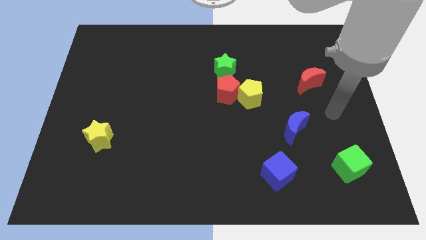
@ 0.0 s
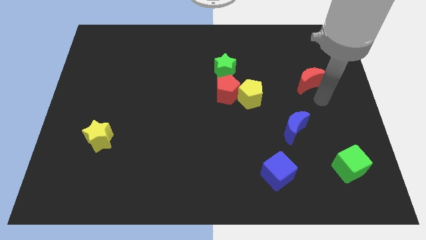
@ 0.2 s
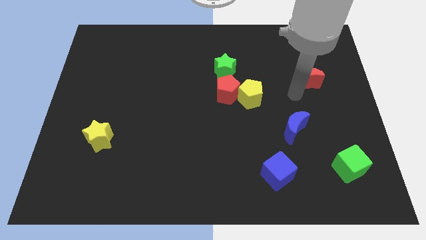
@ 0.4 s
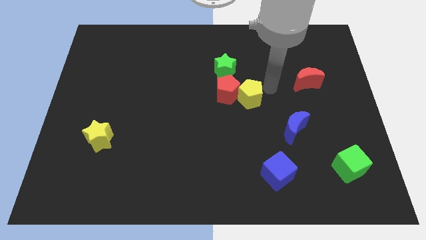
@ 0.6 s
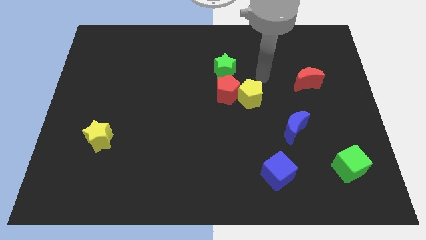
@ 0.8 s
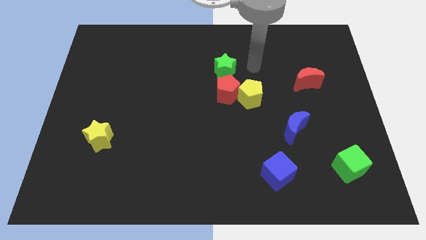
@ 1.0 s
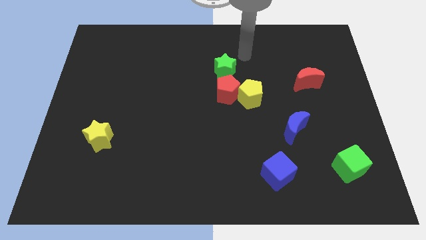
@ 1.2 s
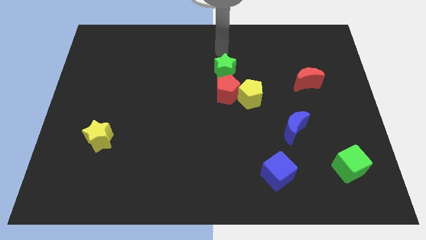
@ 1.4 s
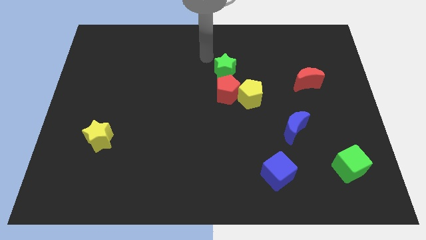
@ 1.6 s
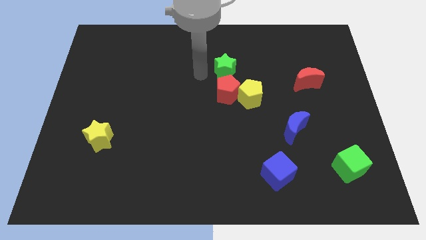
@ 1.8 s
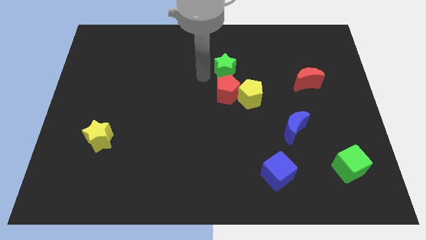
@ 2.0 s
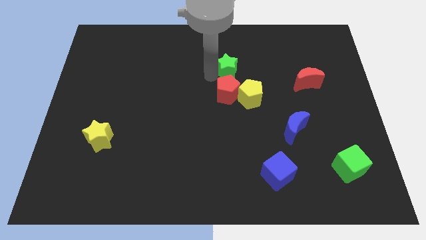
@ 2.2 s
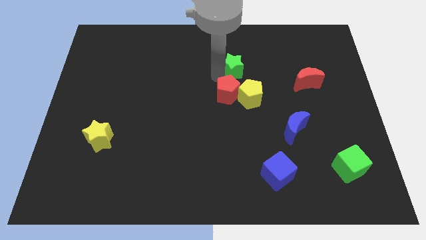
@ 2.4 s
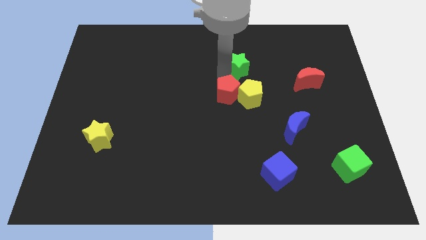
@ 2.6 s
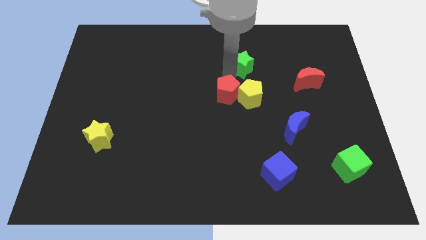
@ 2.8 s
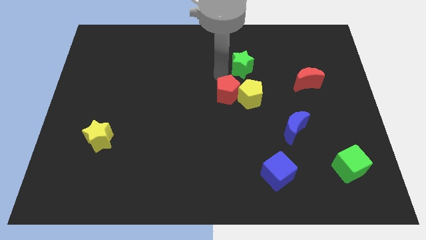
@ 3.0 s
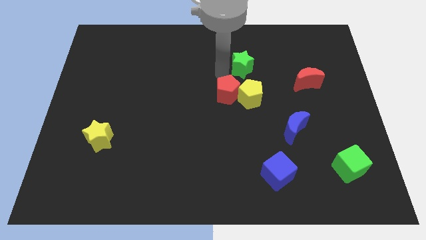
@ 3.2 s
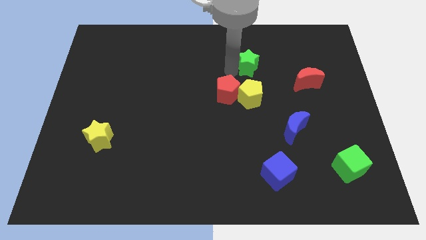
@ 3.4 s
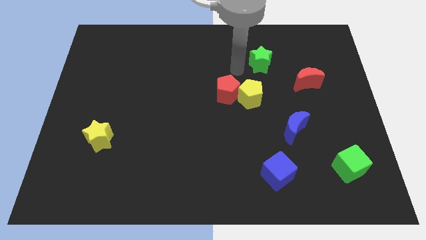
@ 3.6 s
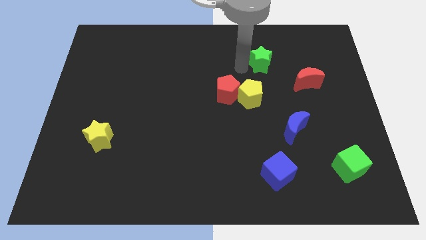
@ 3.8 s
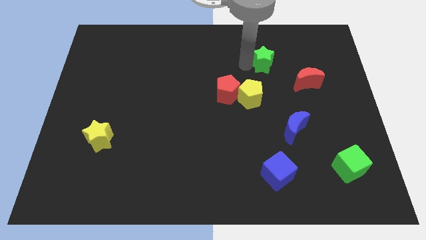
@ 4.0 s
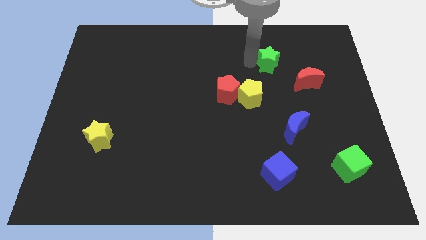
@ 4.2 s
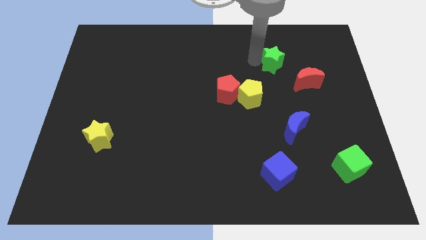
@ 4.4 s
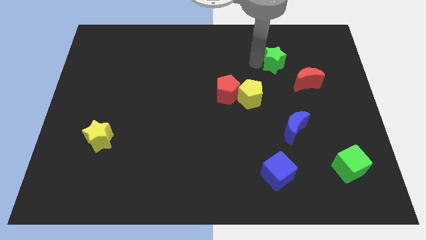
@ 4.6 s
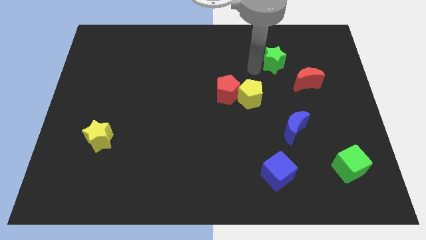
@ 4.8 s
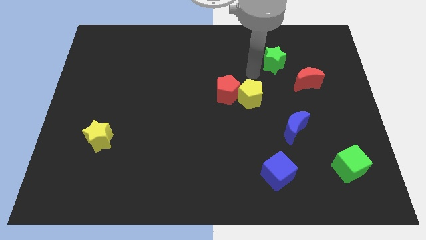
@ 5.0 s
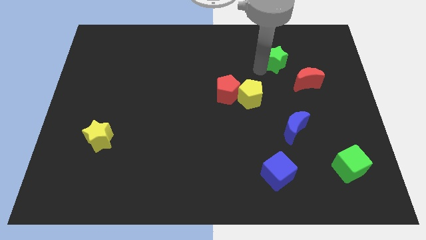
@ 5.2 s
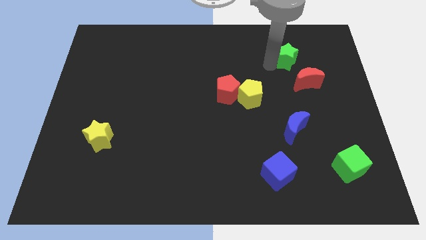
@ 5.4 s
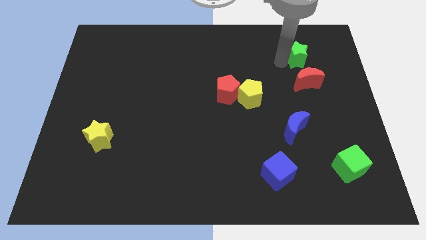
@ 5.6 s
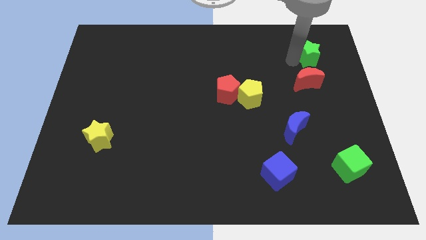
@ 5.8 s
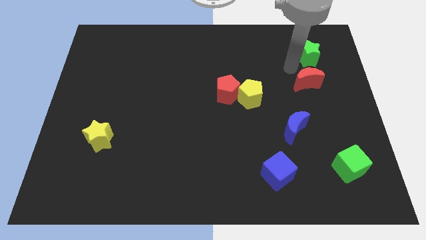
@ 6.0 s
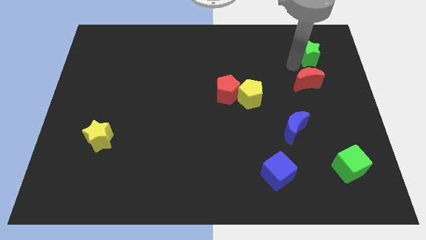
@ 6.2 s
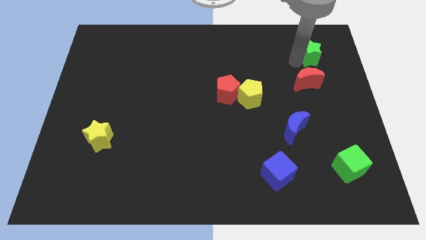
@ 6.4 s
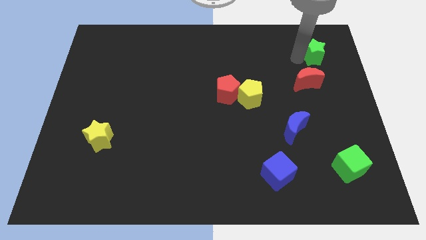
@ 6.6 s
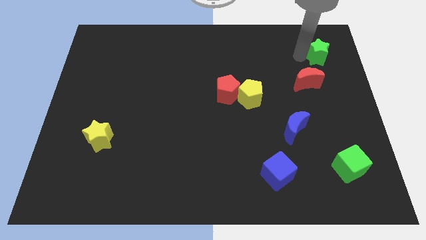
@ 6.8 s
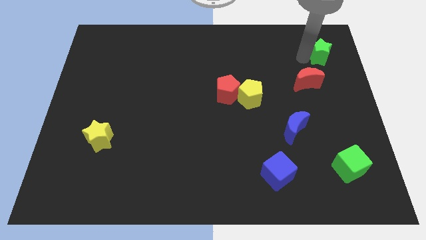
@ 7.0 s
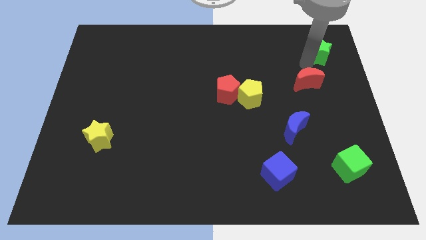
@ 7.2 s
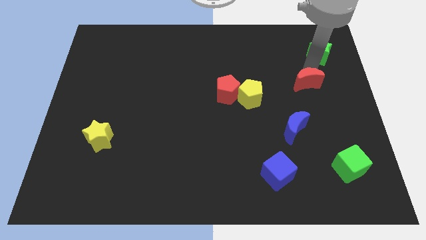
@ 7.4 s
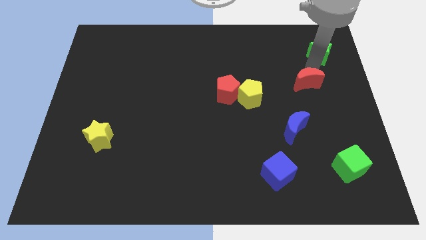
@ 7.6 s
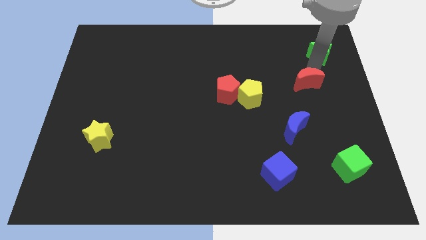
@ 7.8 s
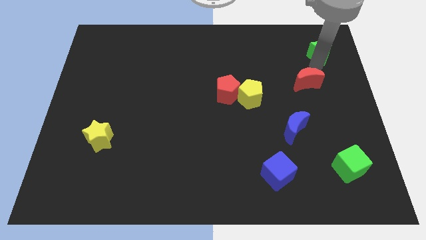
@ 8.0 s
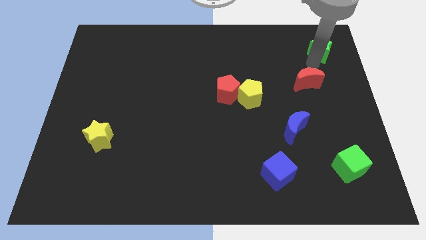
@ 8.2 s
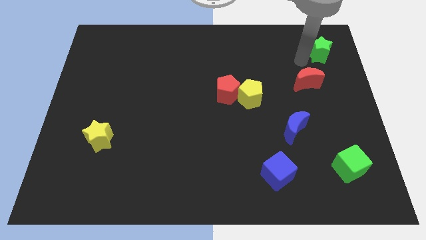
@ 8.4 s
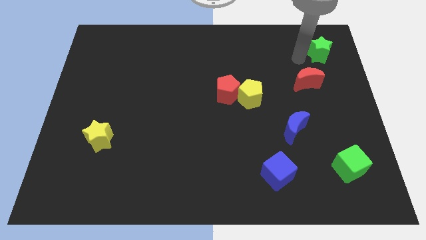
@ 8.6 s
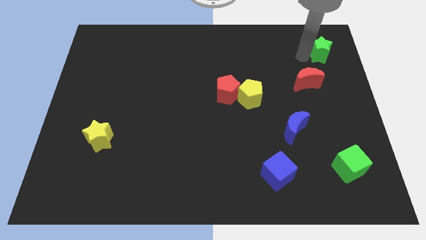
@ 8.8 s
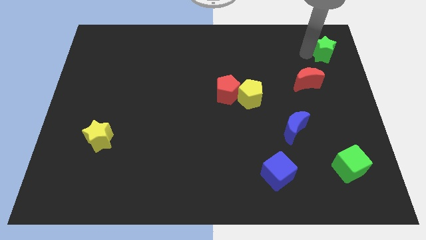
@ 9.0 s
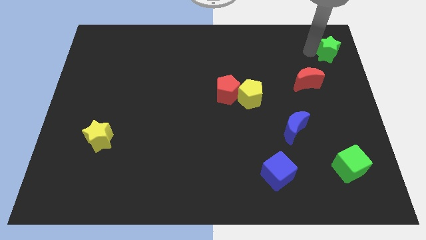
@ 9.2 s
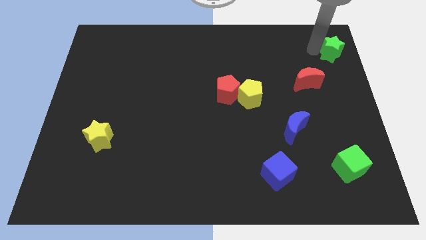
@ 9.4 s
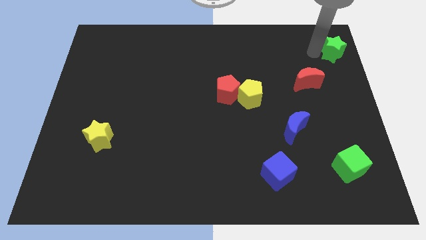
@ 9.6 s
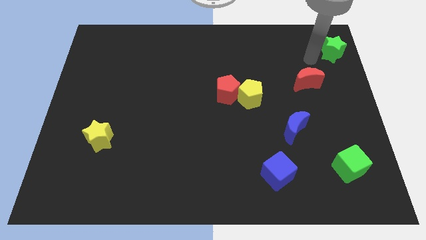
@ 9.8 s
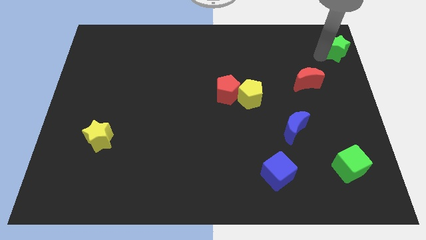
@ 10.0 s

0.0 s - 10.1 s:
push the green star to the top right corner

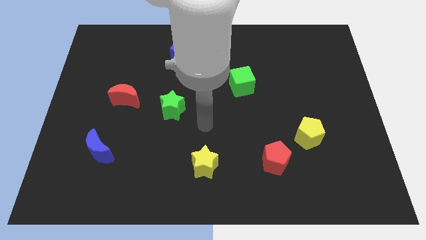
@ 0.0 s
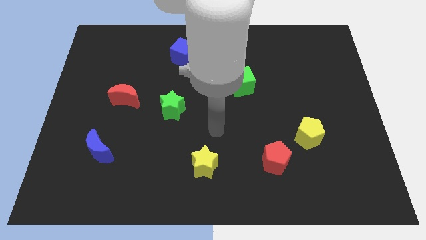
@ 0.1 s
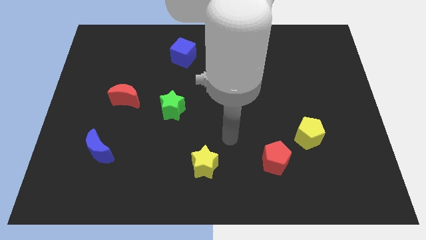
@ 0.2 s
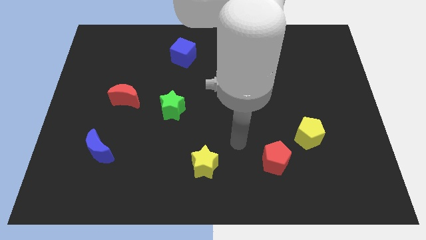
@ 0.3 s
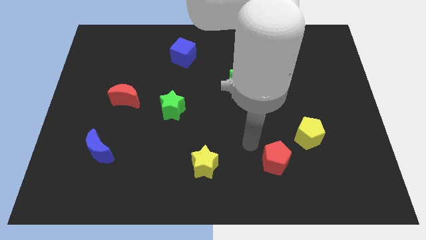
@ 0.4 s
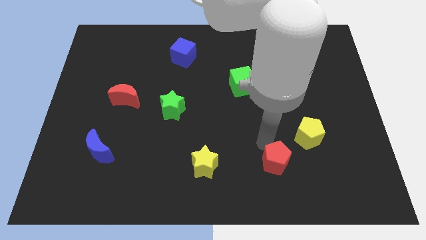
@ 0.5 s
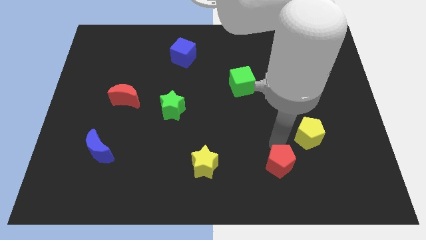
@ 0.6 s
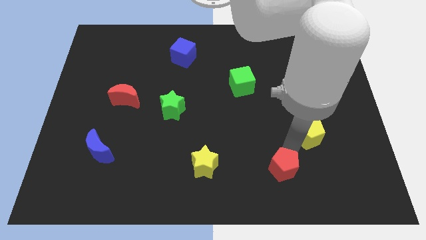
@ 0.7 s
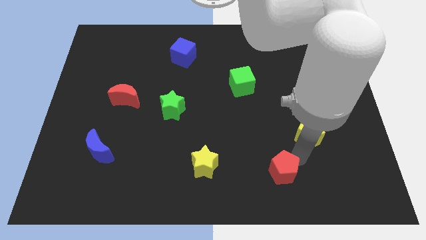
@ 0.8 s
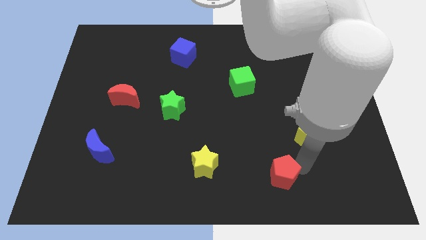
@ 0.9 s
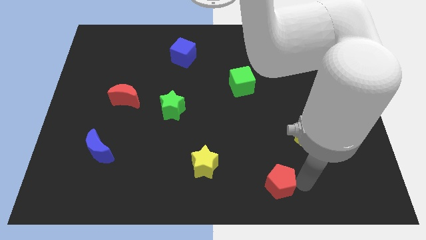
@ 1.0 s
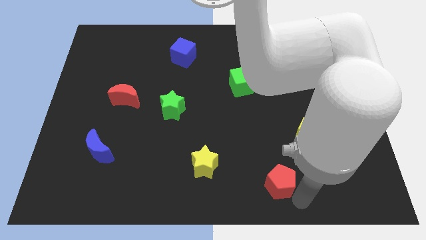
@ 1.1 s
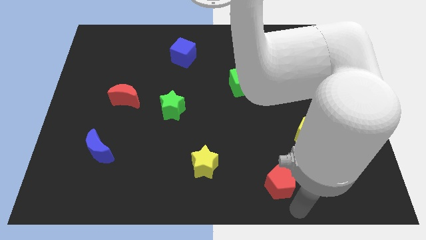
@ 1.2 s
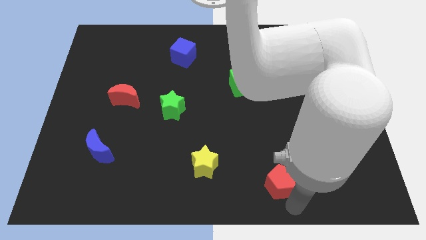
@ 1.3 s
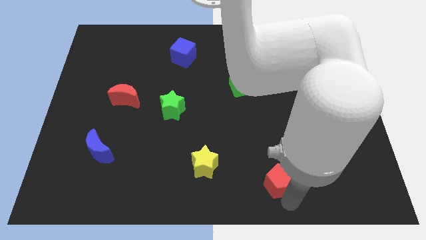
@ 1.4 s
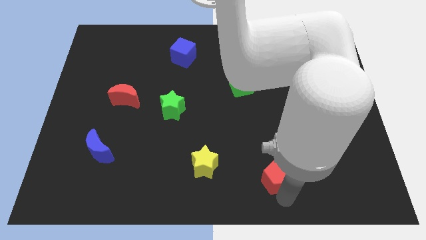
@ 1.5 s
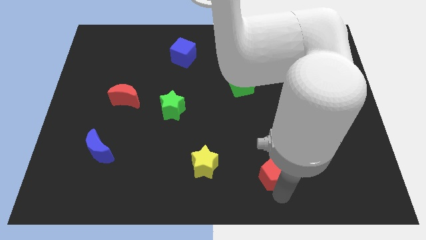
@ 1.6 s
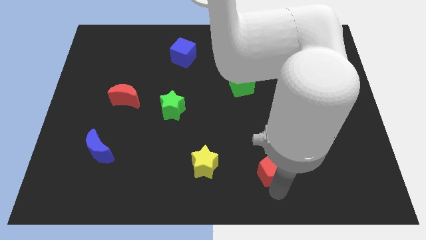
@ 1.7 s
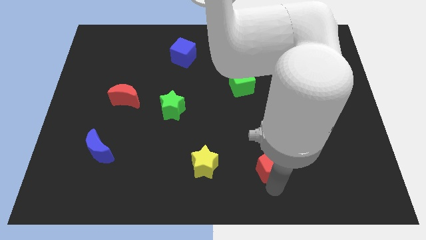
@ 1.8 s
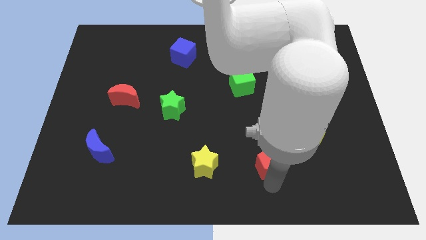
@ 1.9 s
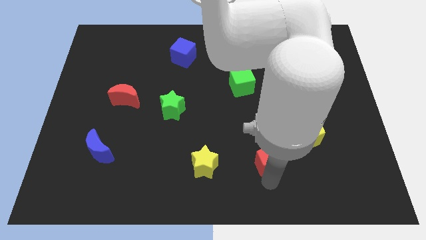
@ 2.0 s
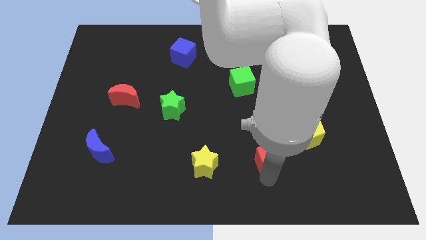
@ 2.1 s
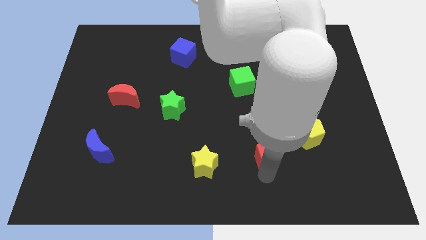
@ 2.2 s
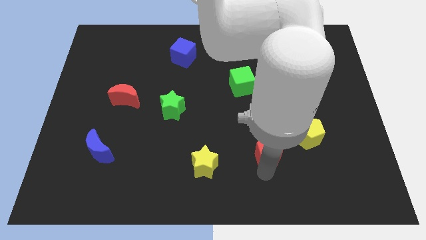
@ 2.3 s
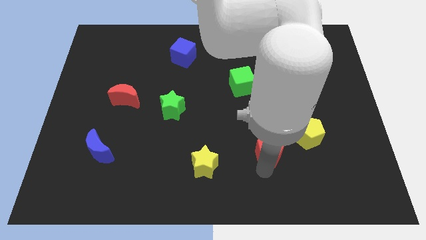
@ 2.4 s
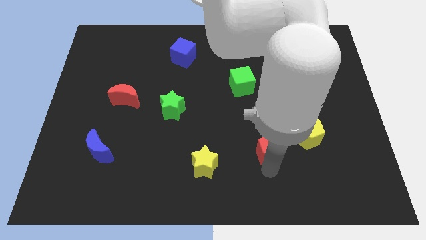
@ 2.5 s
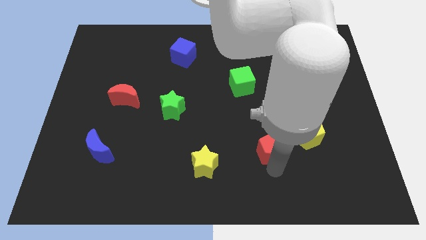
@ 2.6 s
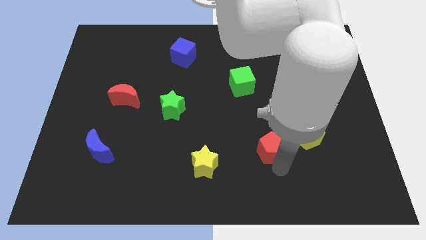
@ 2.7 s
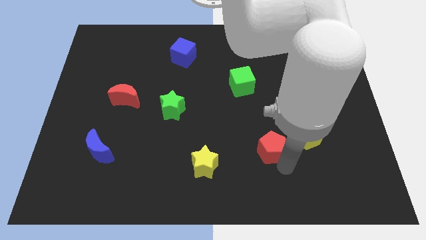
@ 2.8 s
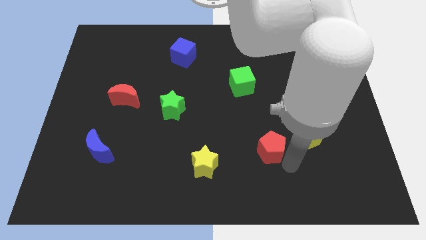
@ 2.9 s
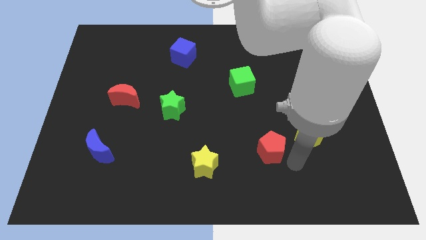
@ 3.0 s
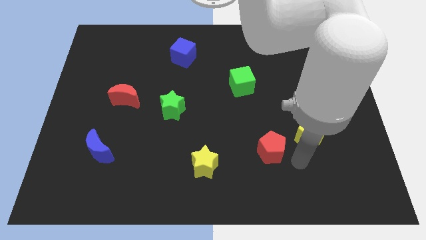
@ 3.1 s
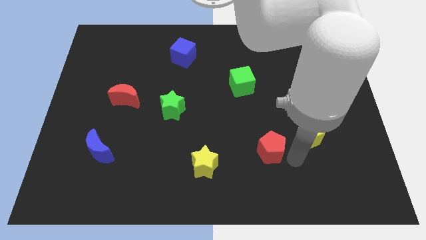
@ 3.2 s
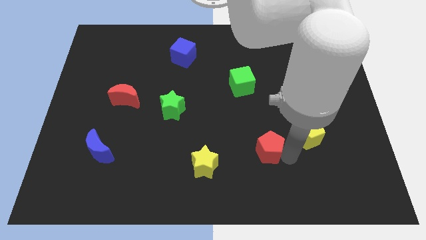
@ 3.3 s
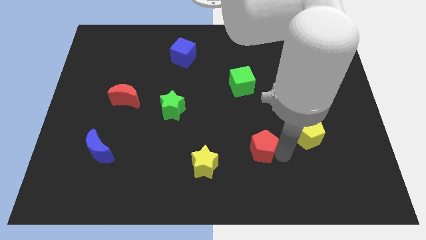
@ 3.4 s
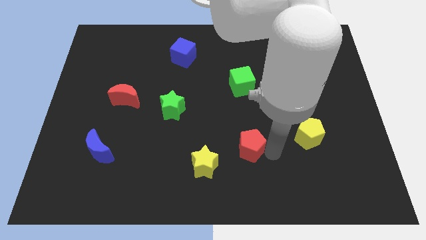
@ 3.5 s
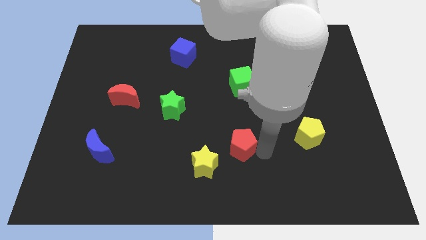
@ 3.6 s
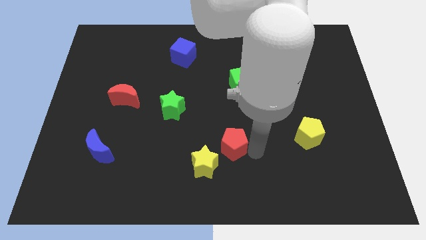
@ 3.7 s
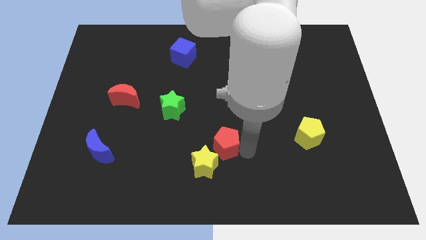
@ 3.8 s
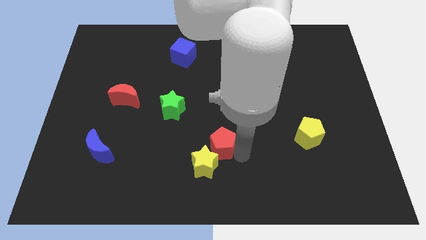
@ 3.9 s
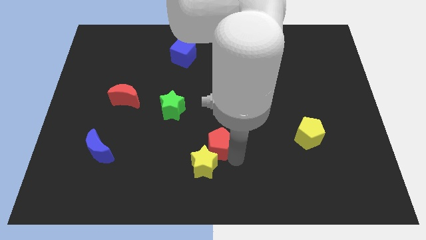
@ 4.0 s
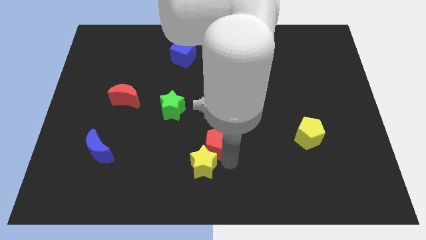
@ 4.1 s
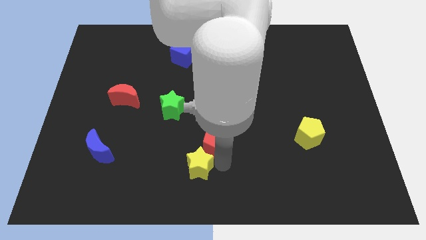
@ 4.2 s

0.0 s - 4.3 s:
slide the red pentagon to the middle
